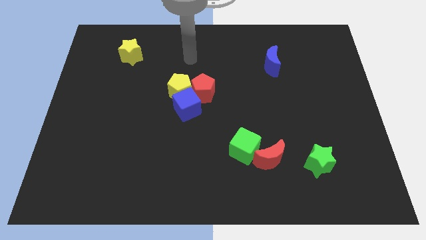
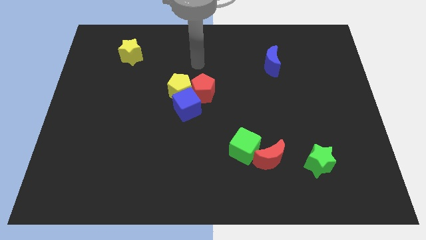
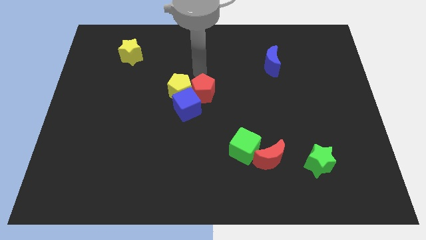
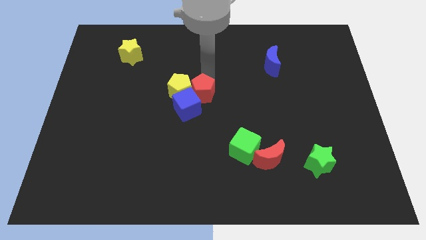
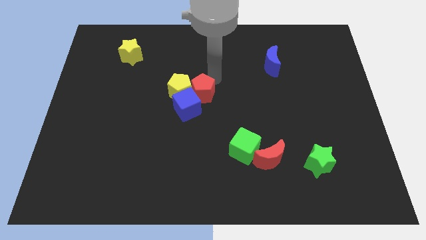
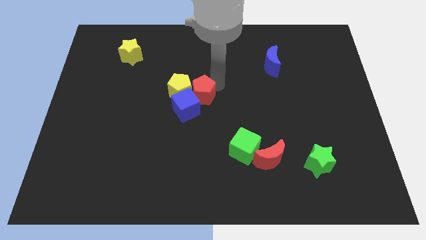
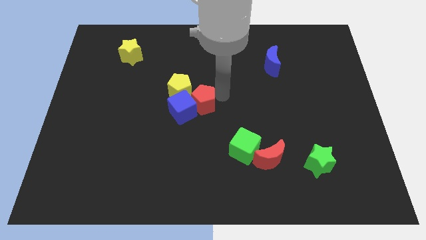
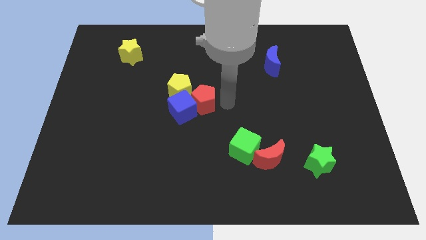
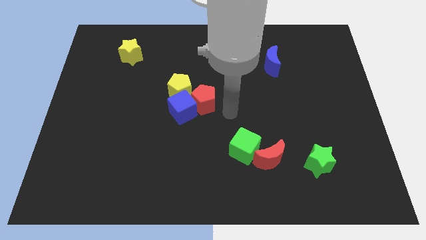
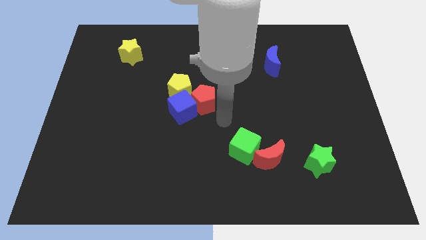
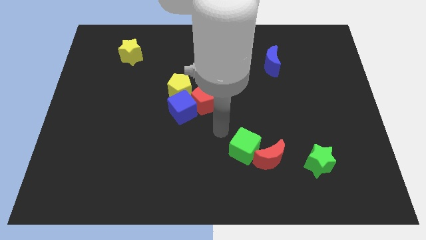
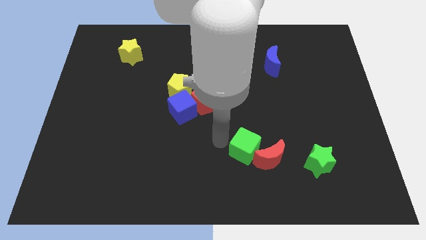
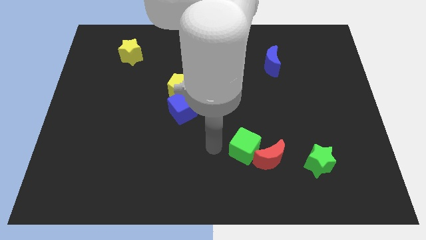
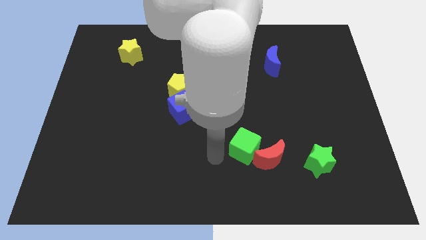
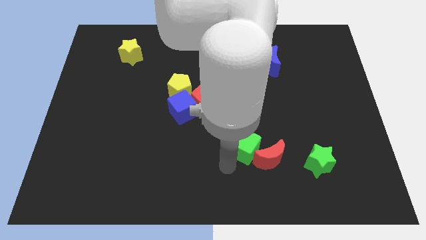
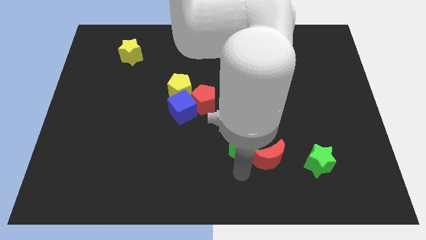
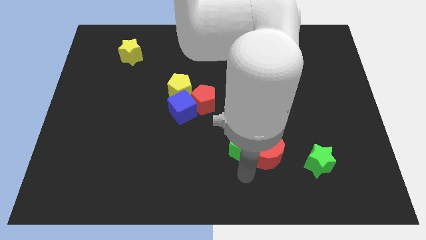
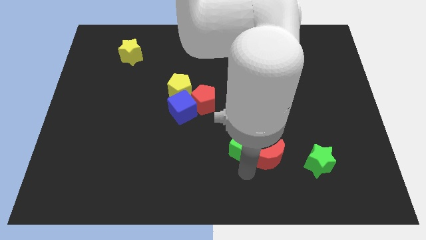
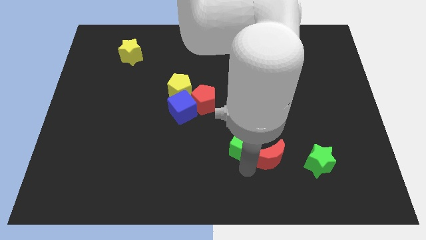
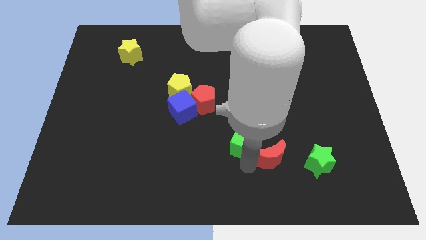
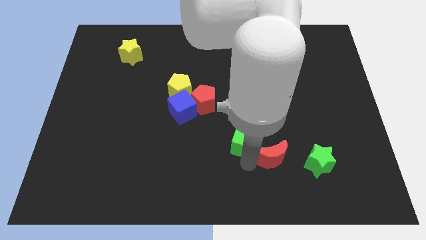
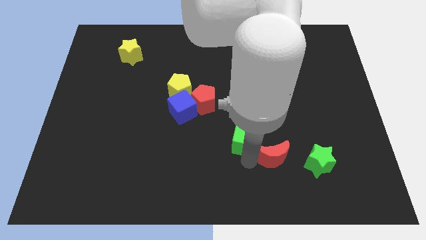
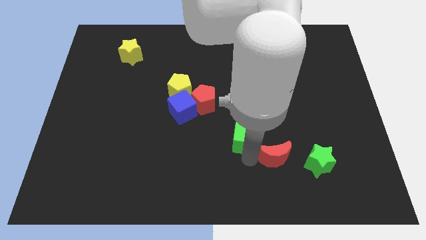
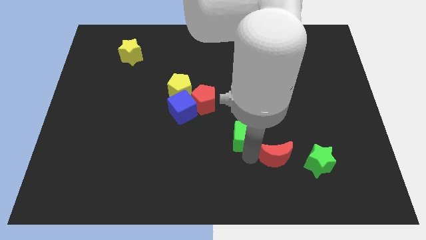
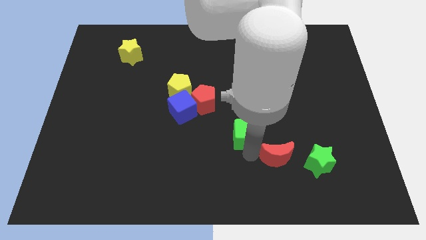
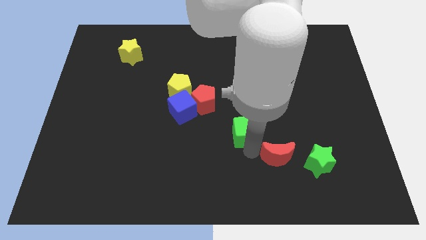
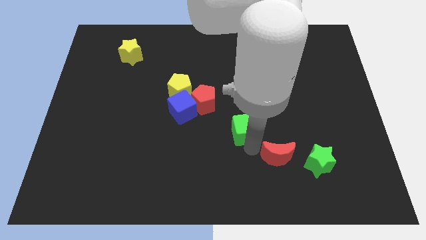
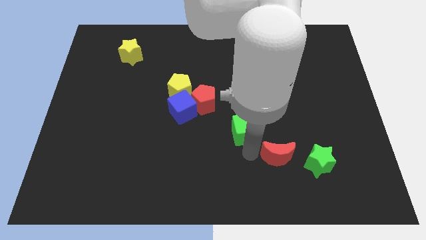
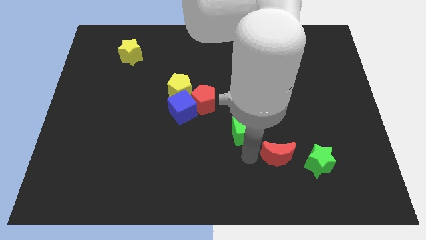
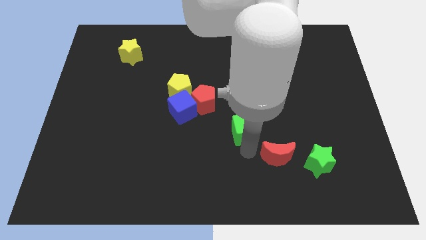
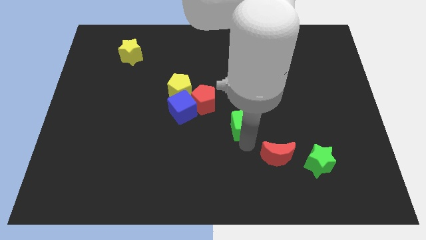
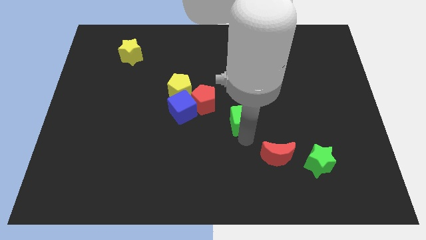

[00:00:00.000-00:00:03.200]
slightly slide the green cube up

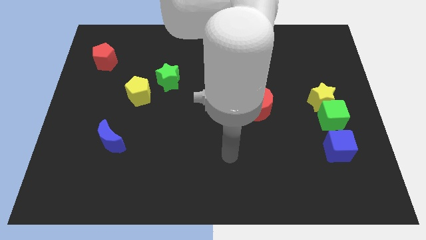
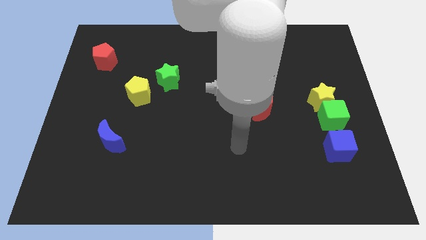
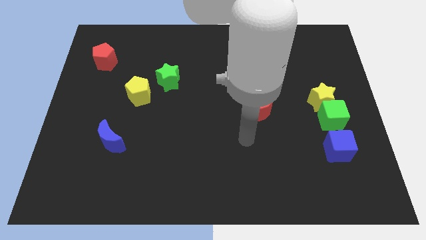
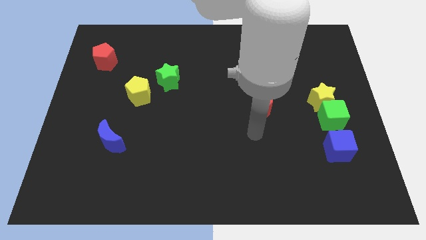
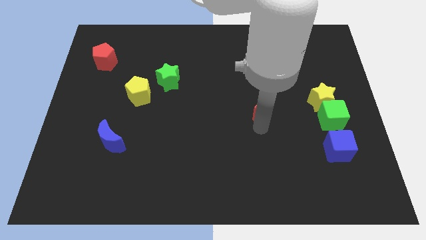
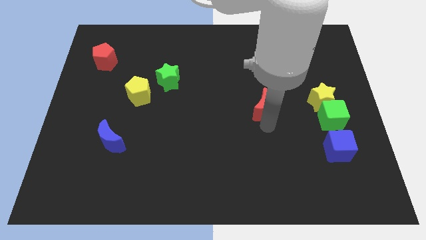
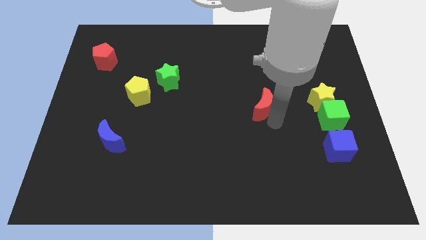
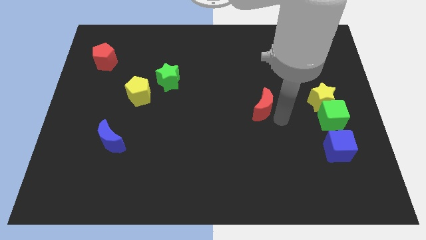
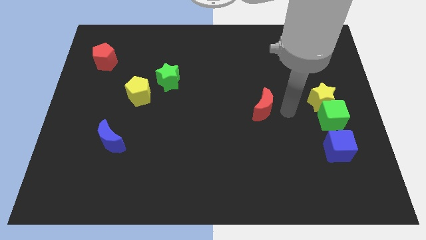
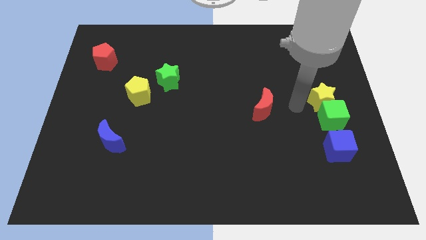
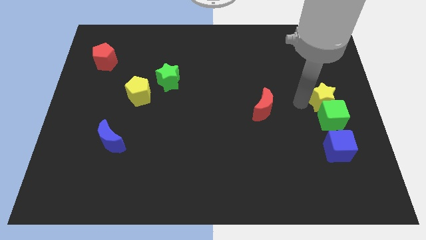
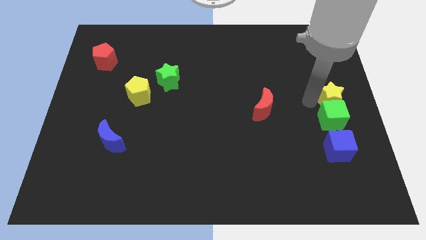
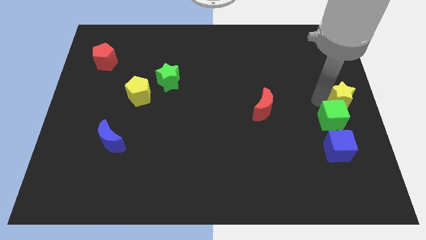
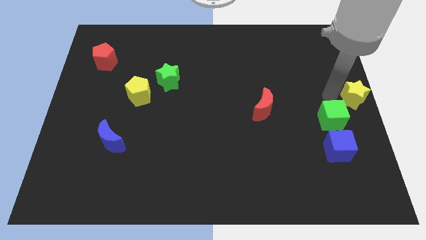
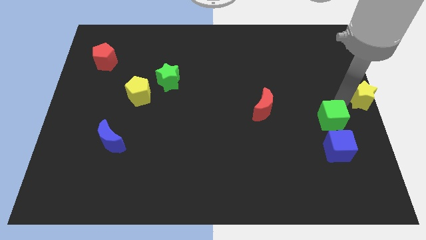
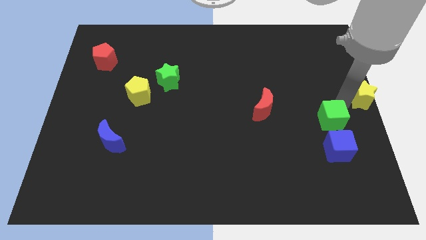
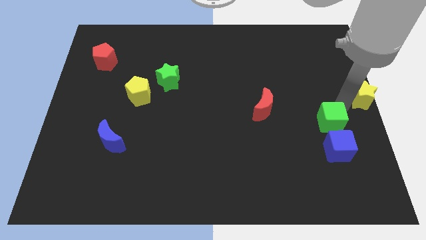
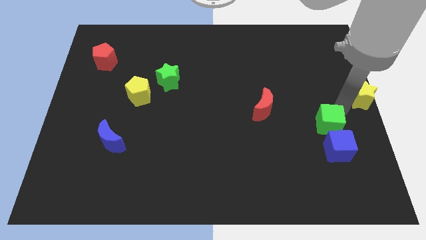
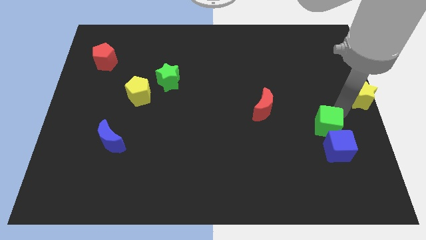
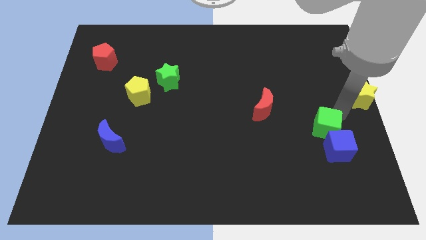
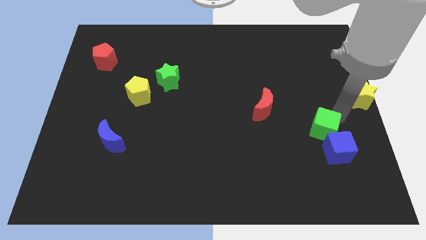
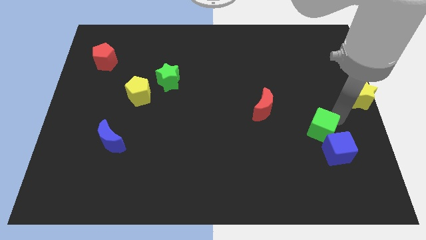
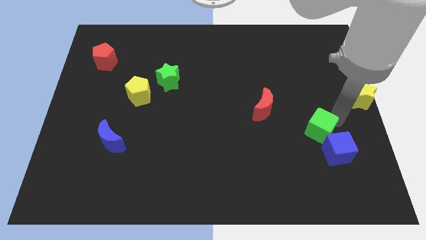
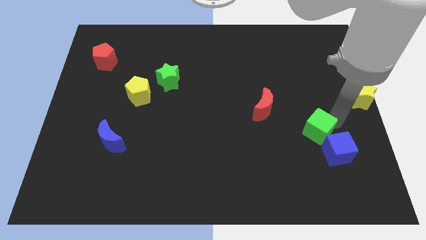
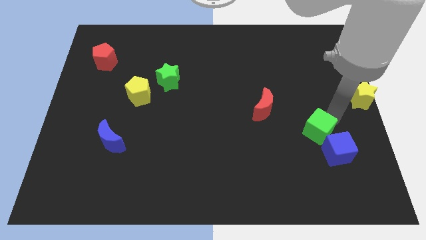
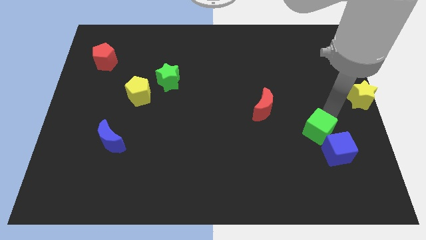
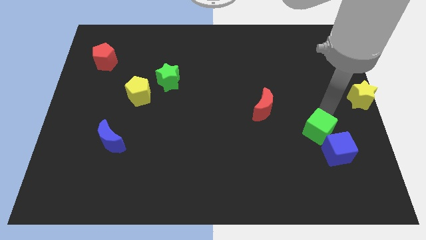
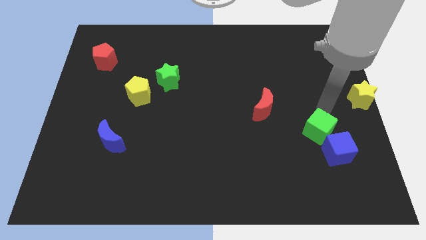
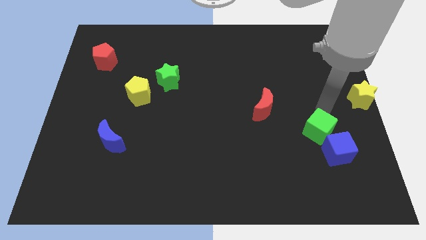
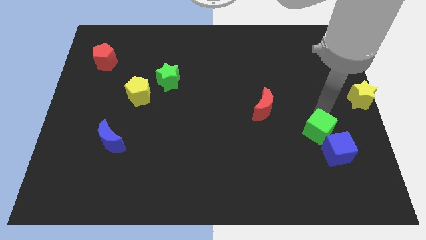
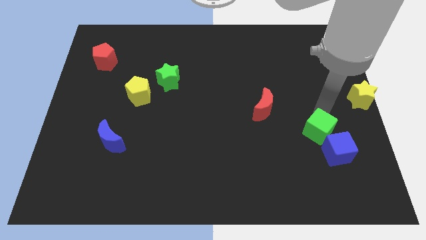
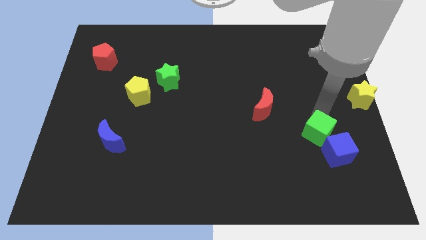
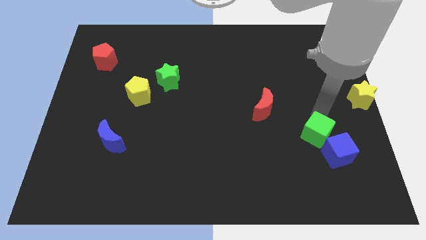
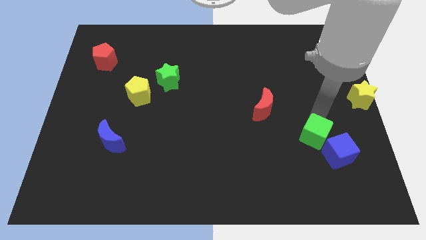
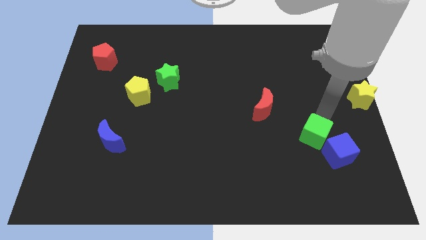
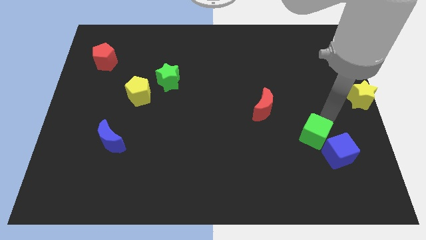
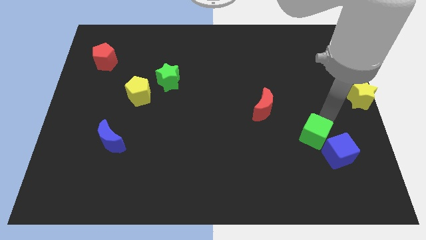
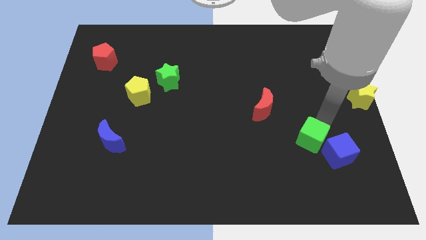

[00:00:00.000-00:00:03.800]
move the green cube slightly diagonally downwards and left

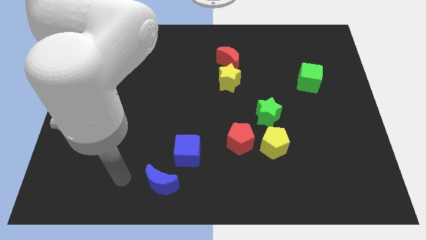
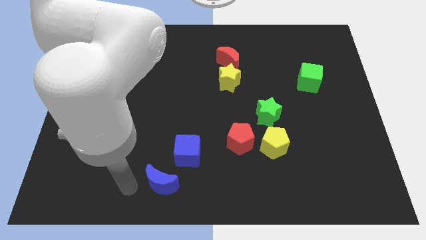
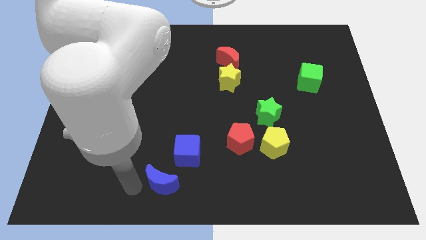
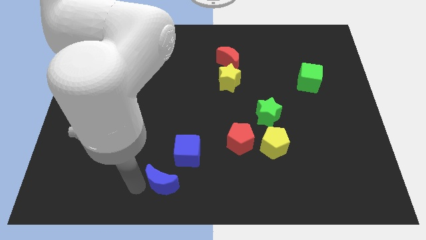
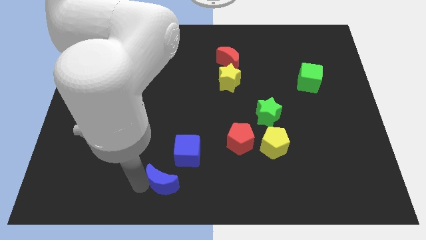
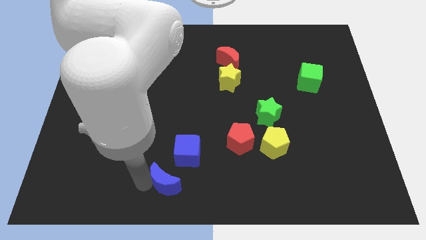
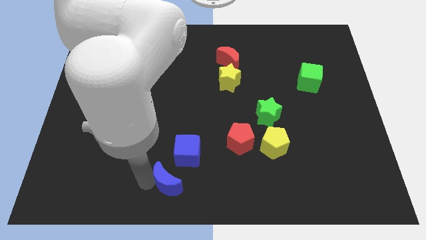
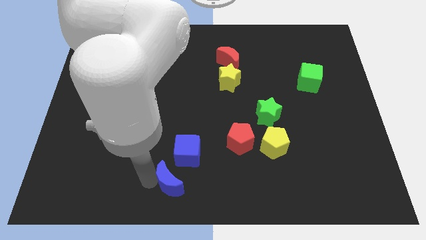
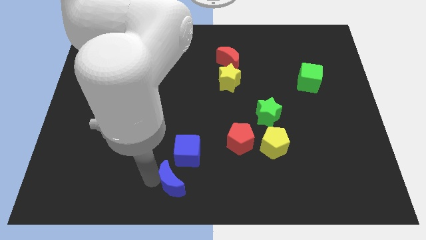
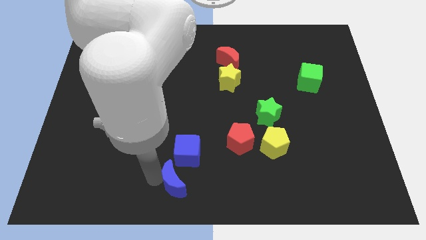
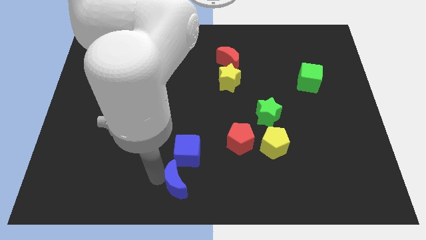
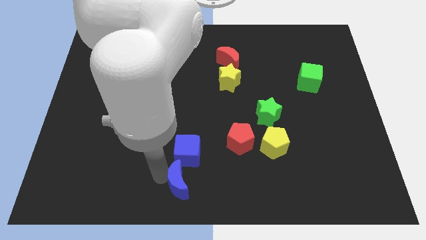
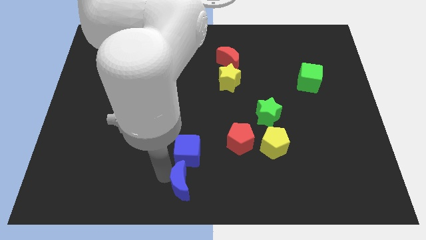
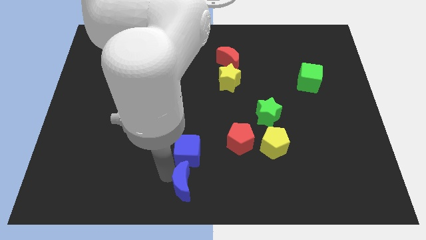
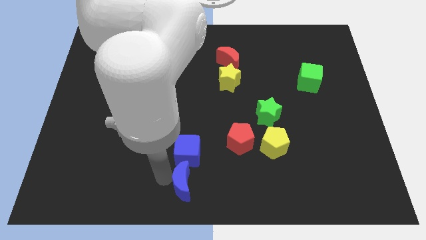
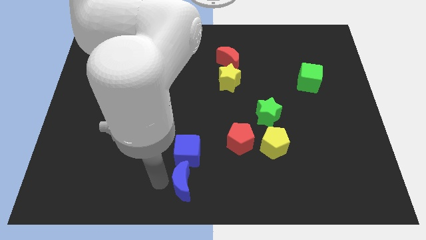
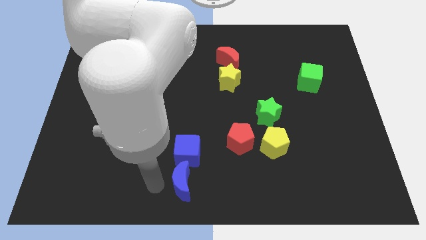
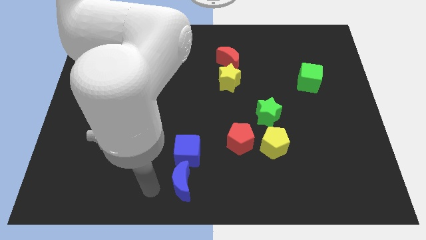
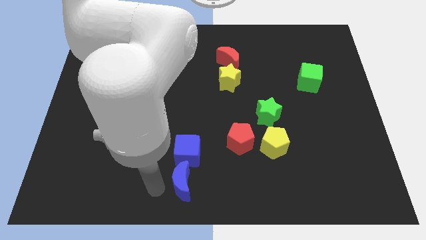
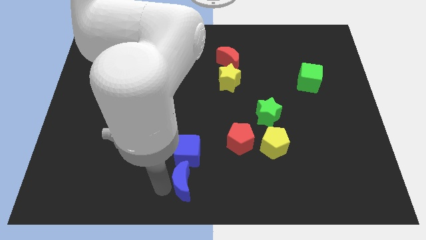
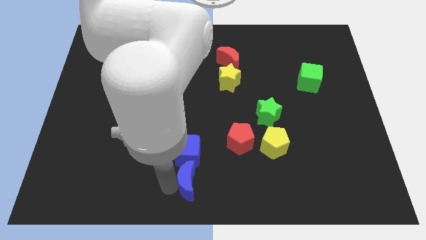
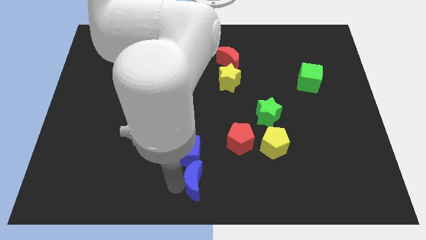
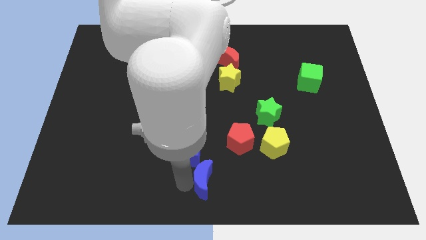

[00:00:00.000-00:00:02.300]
slightly slide the blue moon to the right
